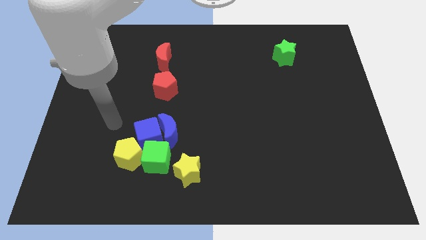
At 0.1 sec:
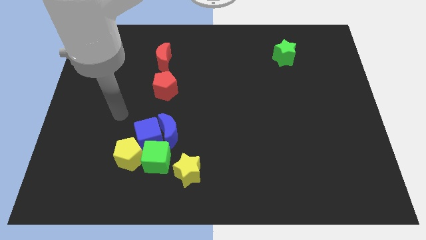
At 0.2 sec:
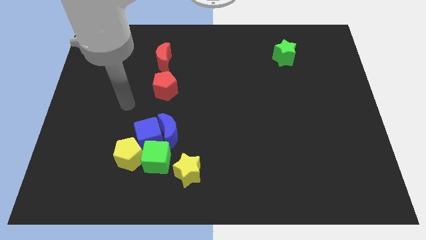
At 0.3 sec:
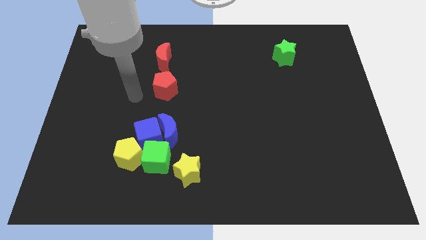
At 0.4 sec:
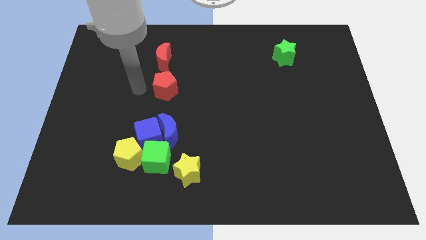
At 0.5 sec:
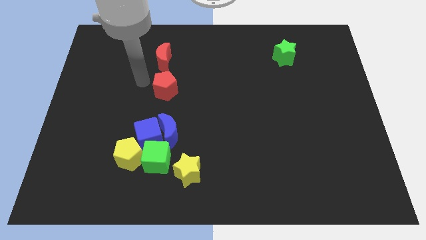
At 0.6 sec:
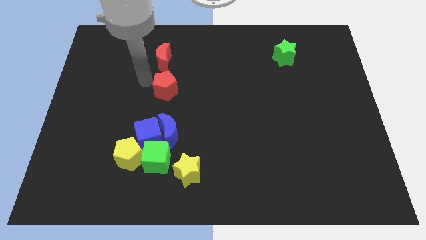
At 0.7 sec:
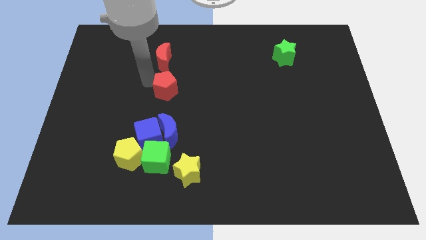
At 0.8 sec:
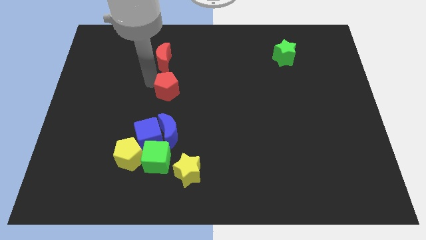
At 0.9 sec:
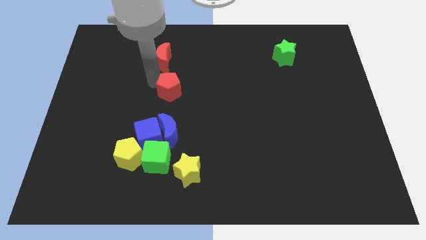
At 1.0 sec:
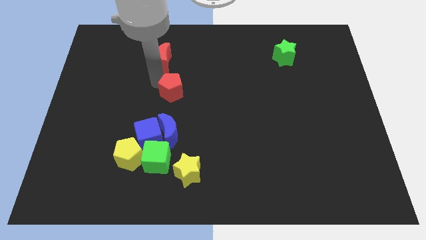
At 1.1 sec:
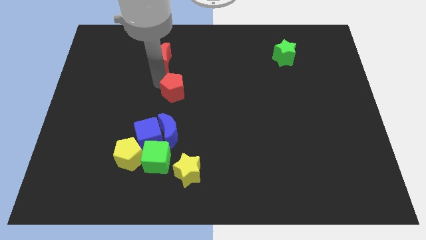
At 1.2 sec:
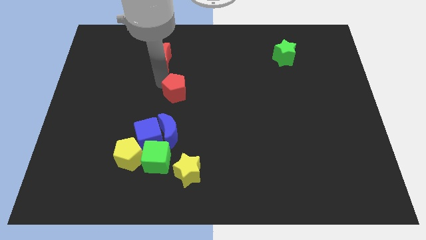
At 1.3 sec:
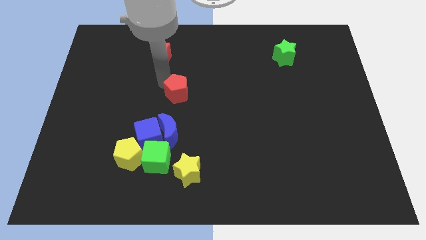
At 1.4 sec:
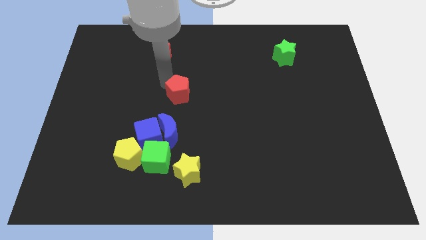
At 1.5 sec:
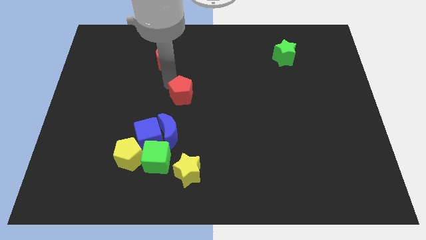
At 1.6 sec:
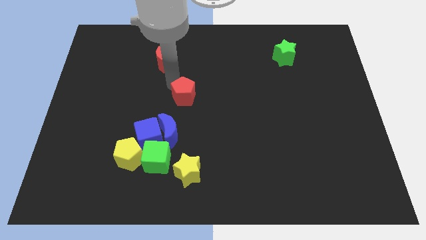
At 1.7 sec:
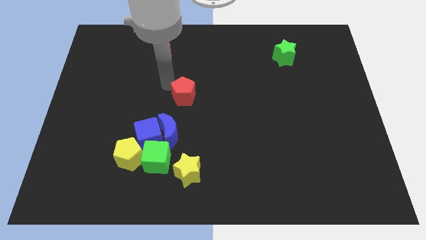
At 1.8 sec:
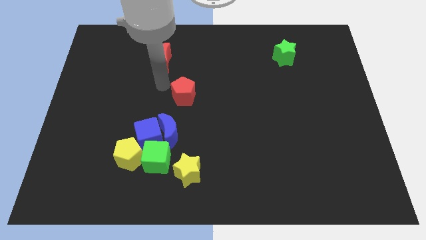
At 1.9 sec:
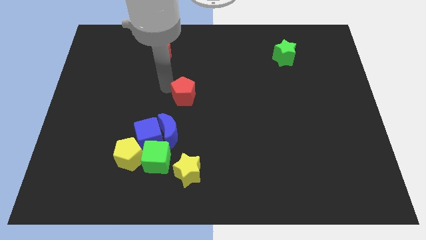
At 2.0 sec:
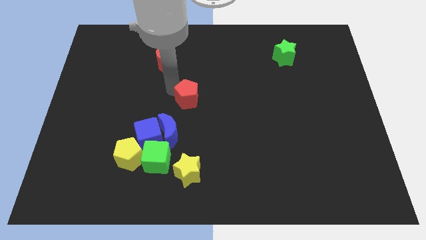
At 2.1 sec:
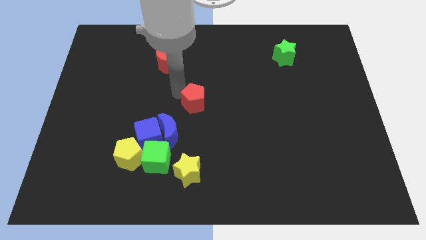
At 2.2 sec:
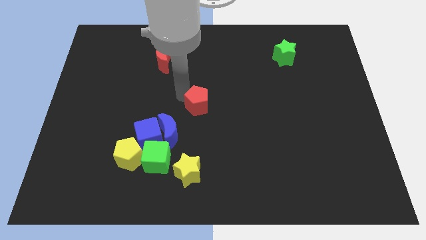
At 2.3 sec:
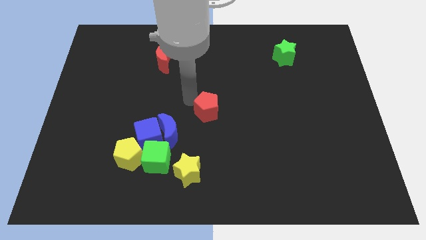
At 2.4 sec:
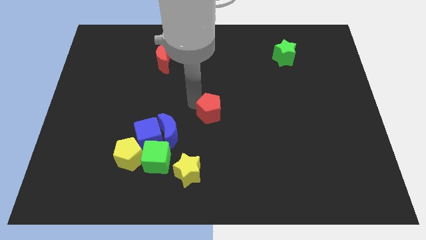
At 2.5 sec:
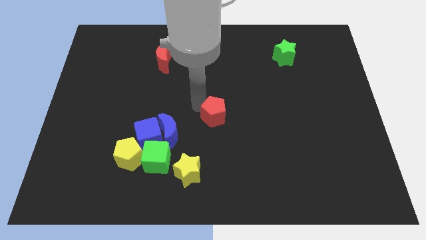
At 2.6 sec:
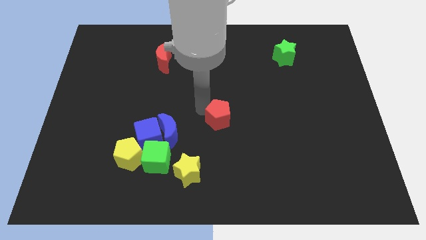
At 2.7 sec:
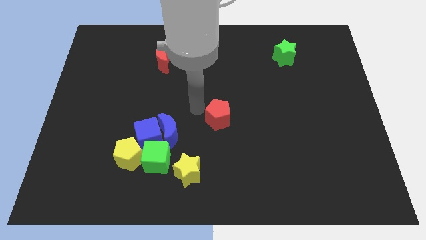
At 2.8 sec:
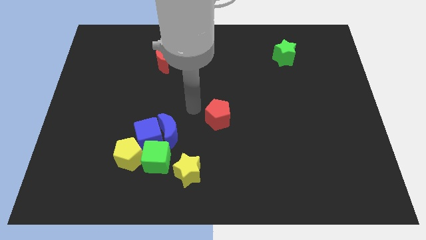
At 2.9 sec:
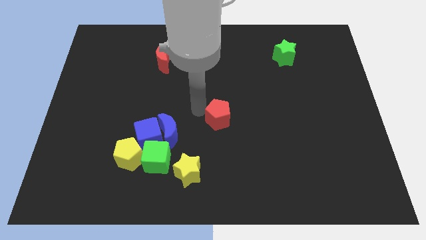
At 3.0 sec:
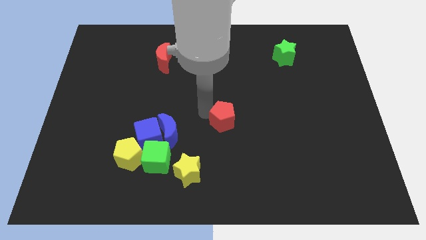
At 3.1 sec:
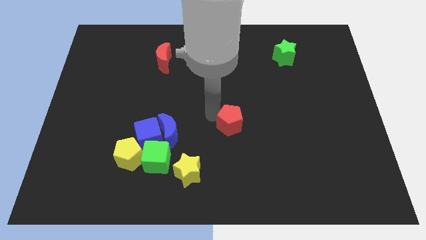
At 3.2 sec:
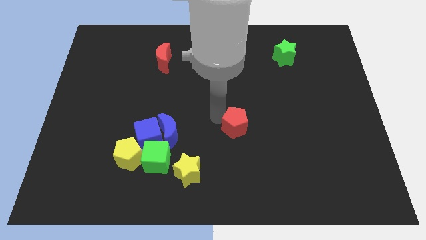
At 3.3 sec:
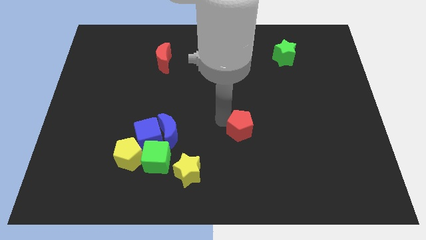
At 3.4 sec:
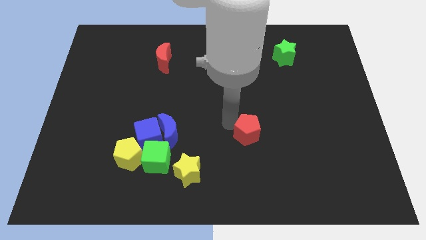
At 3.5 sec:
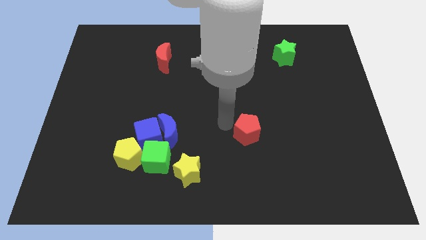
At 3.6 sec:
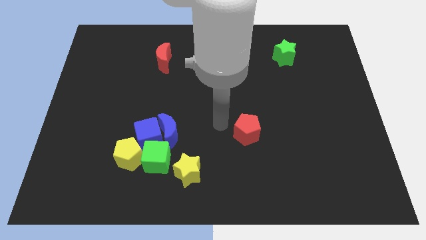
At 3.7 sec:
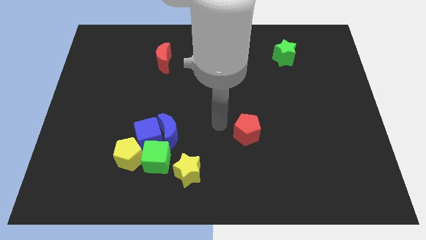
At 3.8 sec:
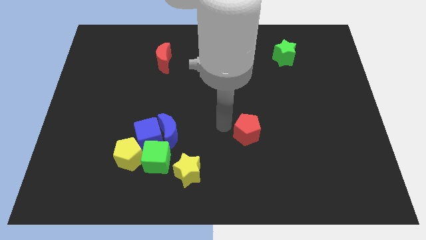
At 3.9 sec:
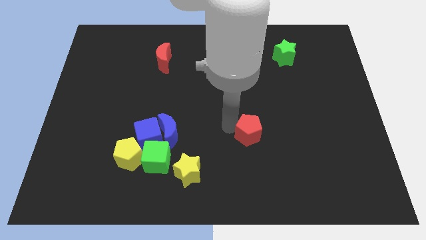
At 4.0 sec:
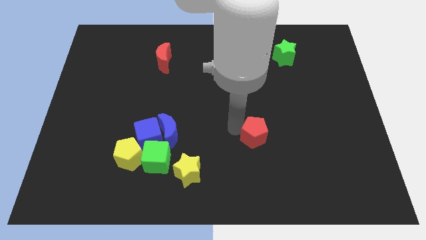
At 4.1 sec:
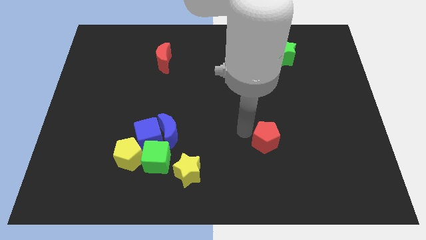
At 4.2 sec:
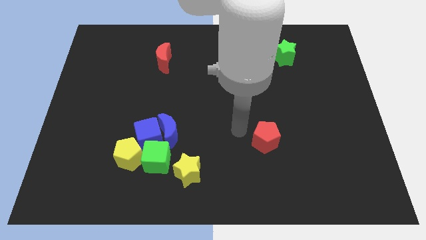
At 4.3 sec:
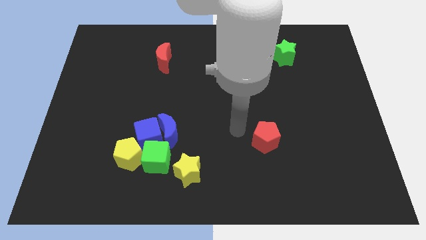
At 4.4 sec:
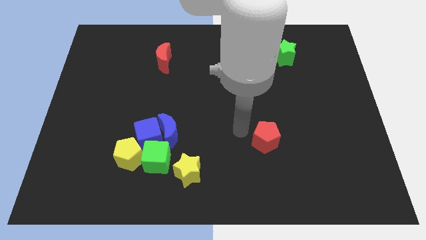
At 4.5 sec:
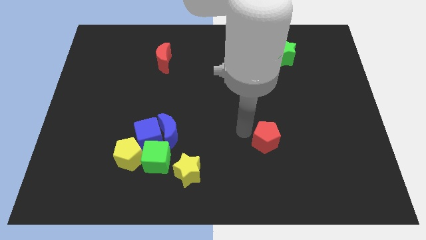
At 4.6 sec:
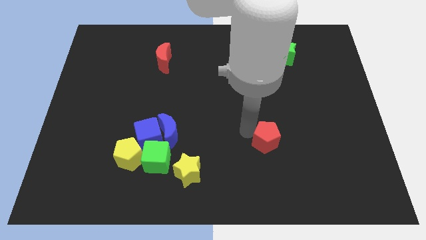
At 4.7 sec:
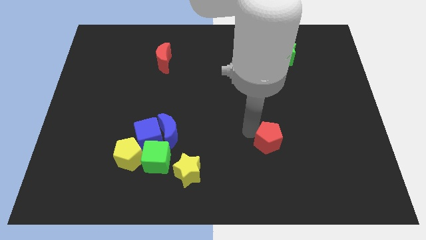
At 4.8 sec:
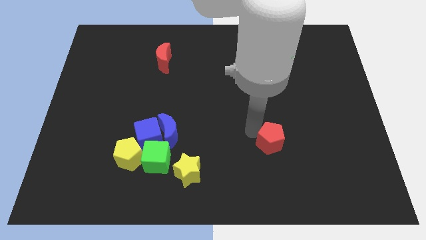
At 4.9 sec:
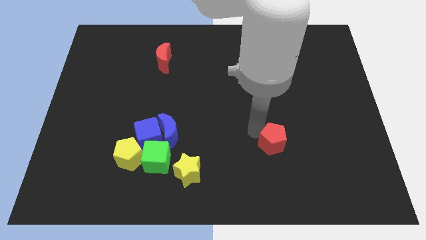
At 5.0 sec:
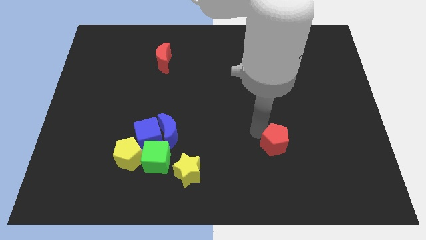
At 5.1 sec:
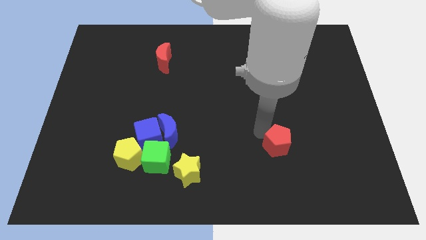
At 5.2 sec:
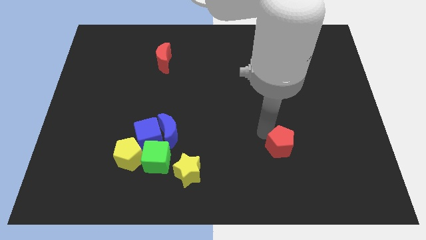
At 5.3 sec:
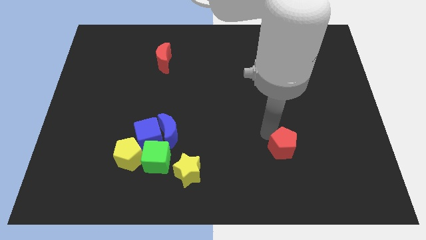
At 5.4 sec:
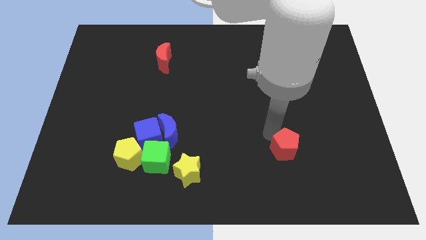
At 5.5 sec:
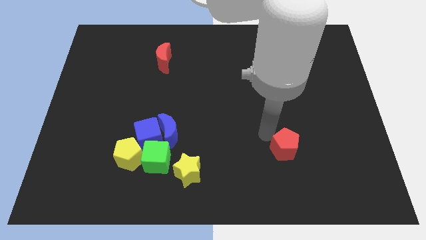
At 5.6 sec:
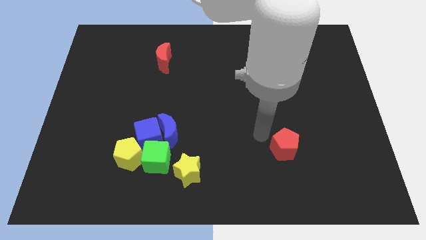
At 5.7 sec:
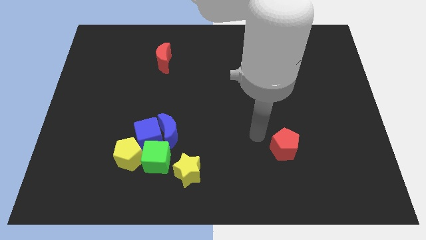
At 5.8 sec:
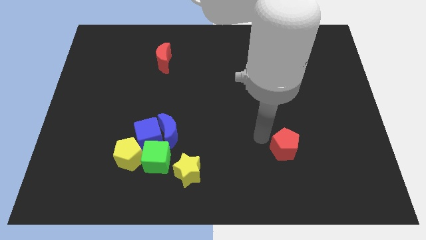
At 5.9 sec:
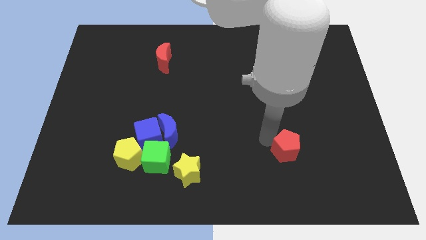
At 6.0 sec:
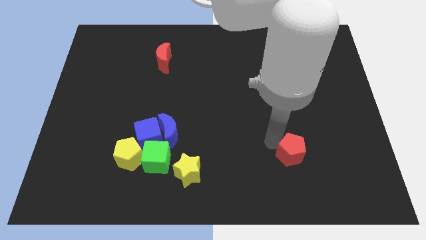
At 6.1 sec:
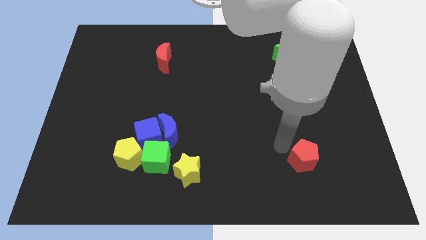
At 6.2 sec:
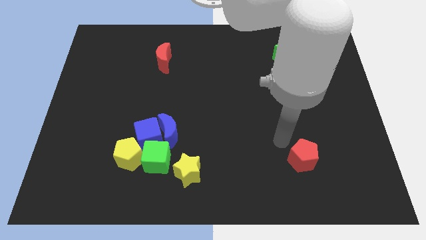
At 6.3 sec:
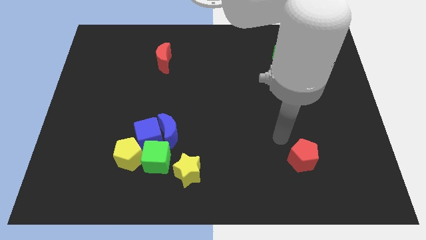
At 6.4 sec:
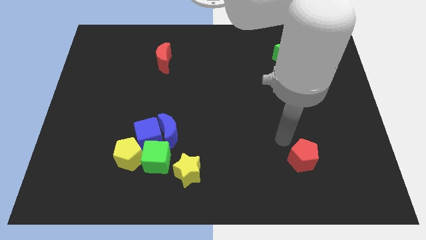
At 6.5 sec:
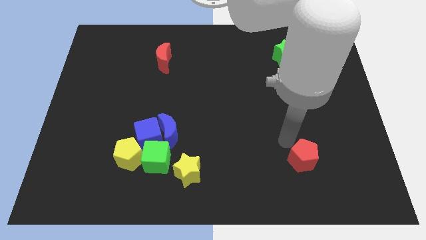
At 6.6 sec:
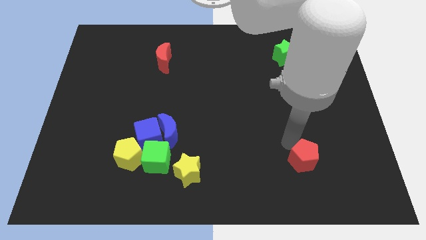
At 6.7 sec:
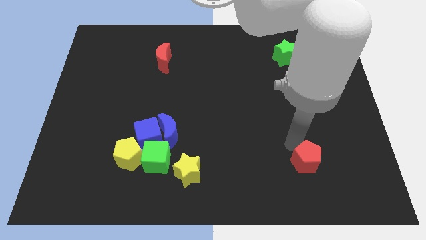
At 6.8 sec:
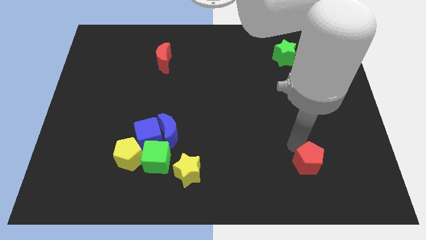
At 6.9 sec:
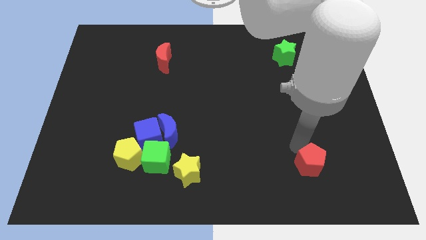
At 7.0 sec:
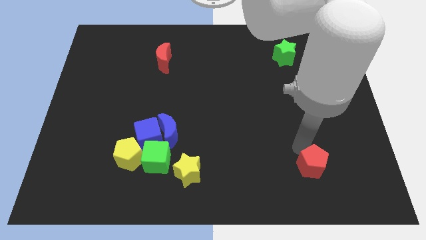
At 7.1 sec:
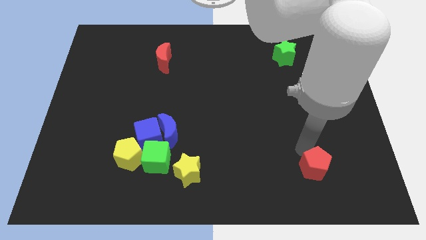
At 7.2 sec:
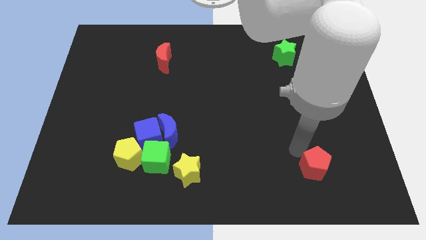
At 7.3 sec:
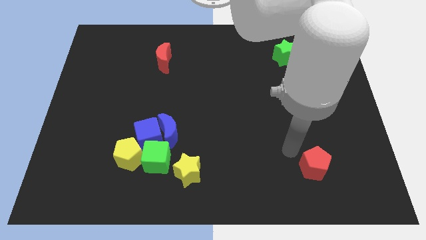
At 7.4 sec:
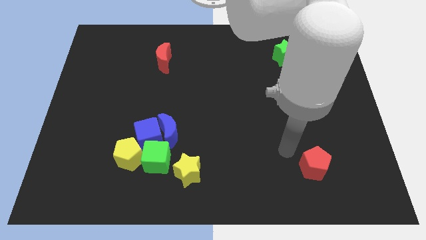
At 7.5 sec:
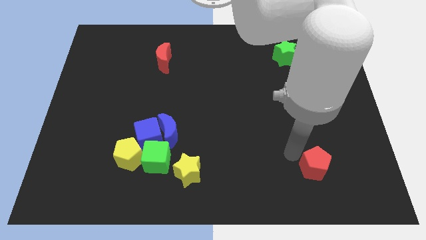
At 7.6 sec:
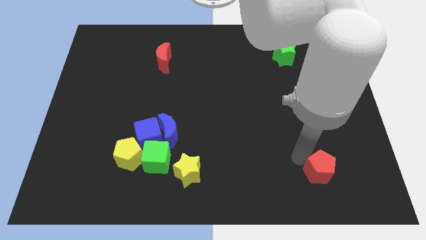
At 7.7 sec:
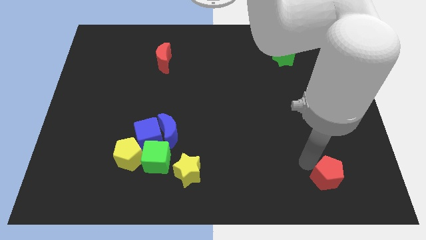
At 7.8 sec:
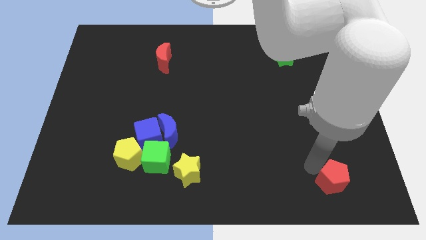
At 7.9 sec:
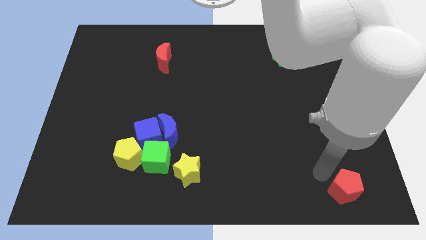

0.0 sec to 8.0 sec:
put the red pentagon to the bottom right
